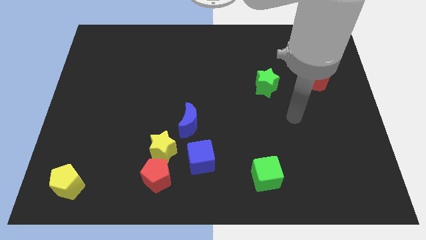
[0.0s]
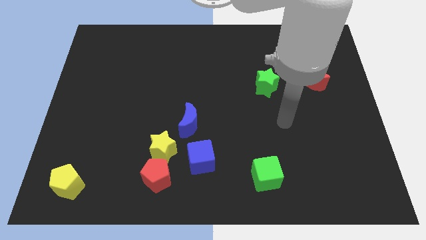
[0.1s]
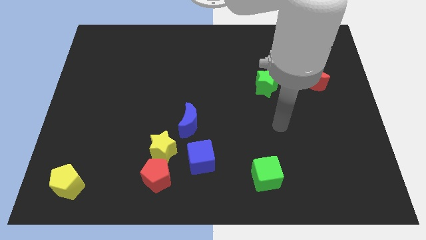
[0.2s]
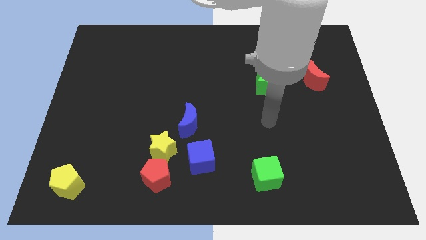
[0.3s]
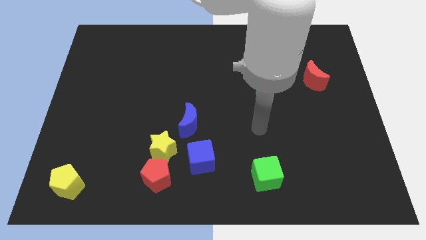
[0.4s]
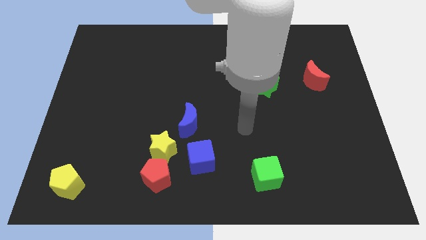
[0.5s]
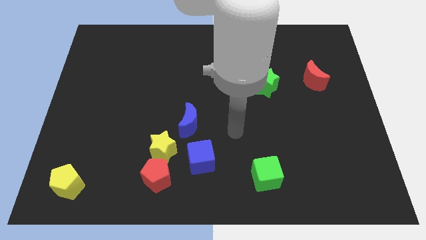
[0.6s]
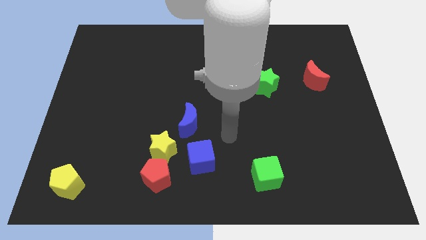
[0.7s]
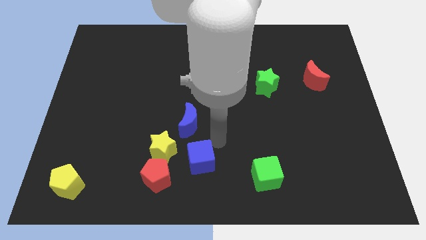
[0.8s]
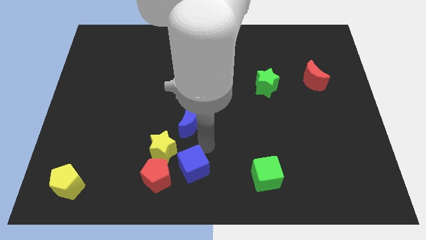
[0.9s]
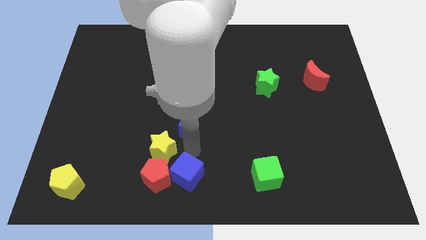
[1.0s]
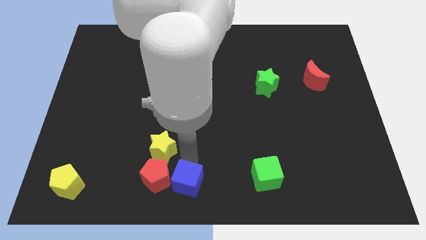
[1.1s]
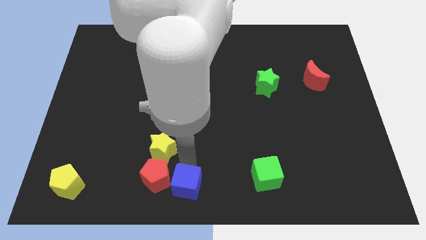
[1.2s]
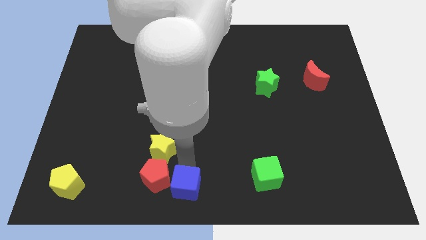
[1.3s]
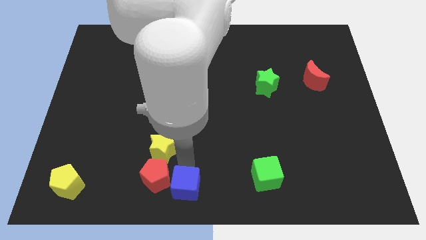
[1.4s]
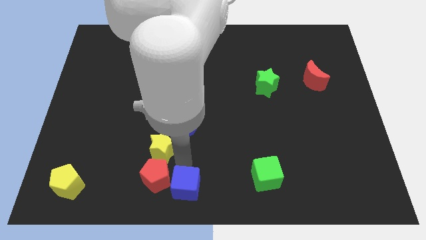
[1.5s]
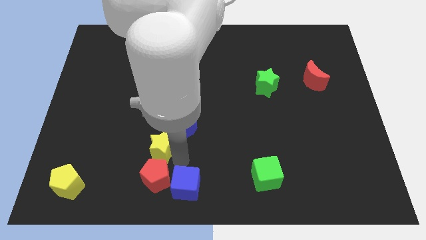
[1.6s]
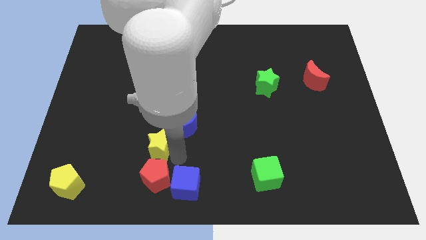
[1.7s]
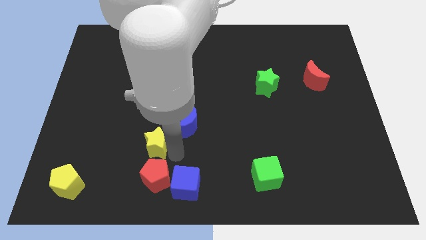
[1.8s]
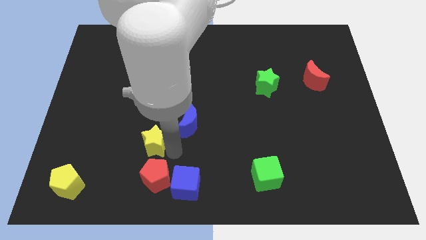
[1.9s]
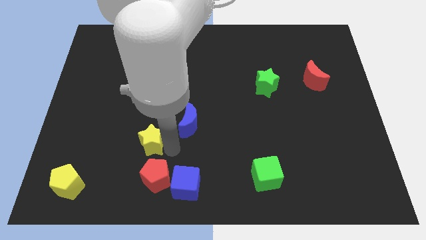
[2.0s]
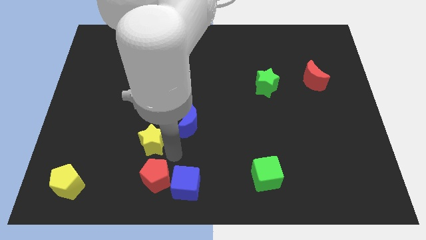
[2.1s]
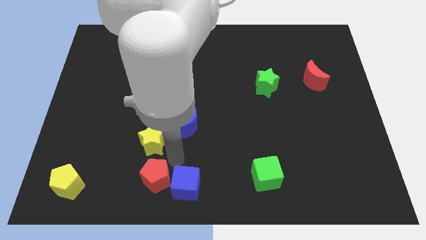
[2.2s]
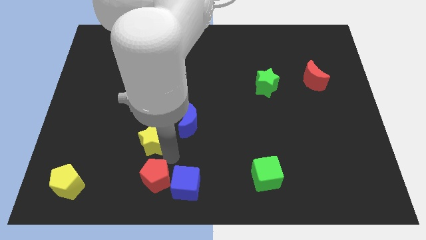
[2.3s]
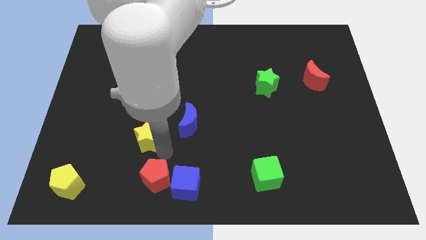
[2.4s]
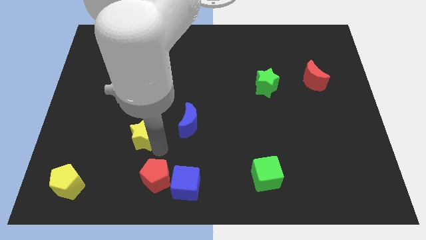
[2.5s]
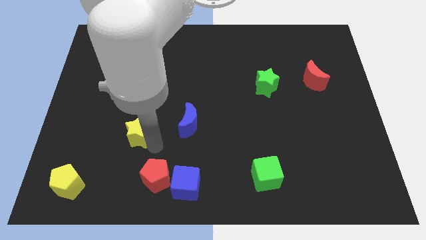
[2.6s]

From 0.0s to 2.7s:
move the yellow star away from the group of blocks

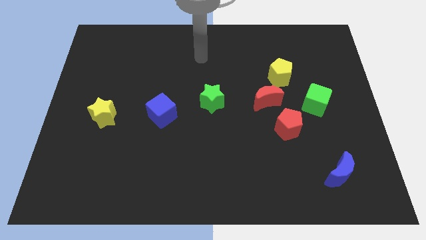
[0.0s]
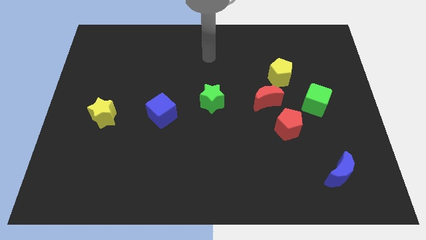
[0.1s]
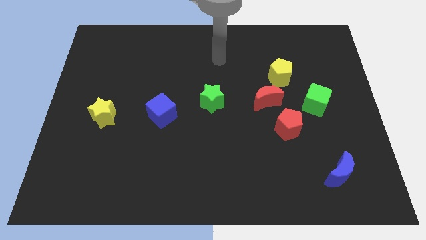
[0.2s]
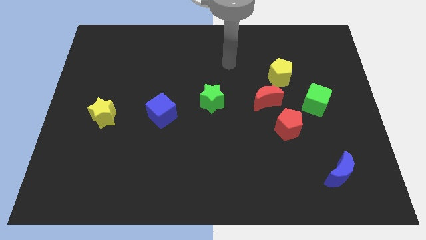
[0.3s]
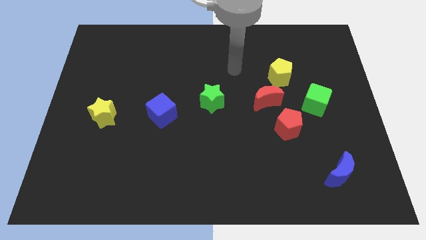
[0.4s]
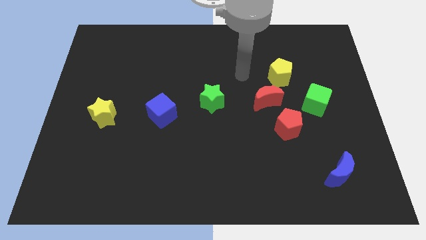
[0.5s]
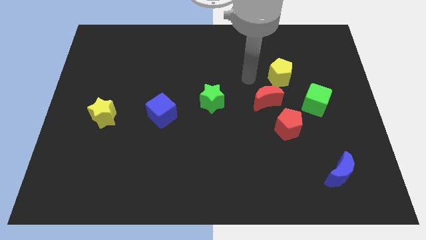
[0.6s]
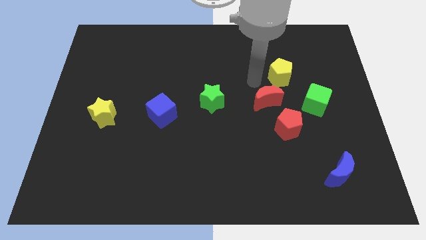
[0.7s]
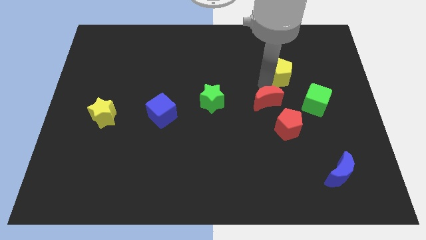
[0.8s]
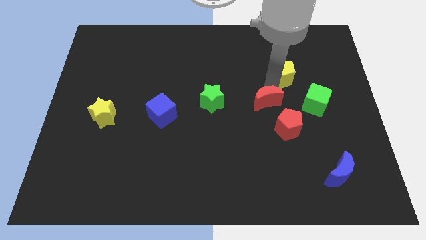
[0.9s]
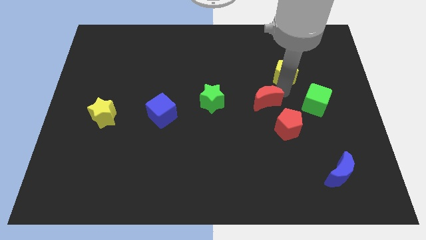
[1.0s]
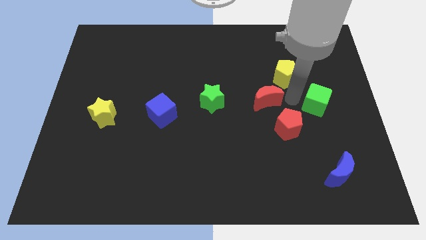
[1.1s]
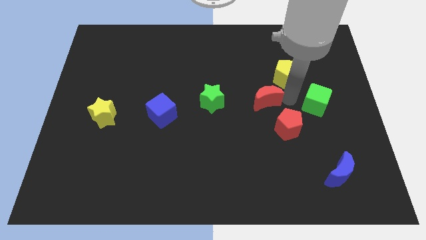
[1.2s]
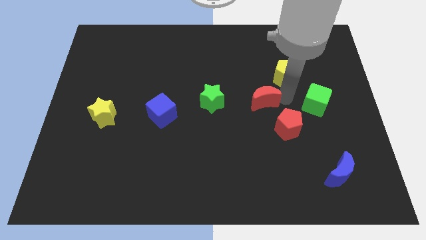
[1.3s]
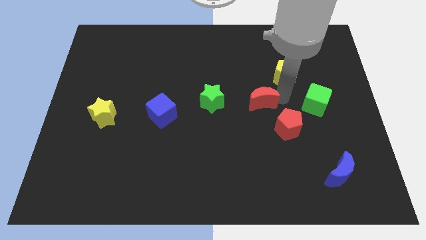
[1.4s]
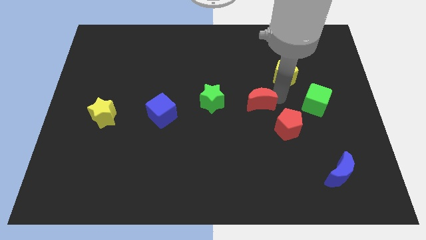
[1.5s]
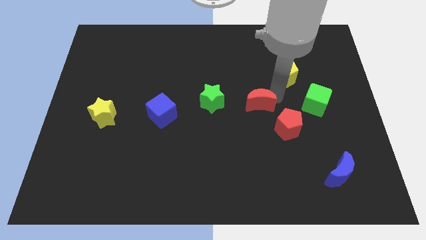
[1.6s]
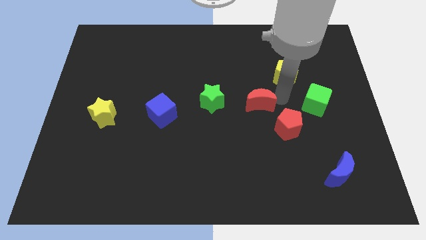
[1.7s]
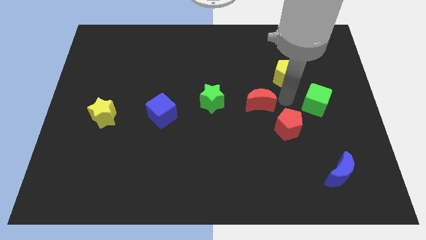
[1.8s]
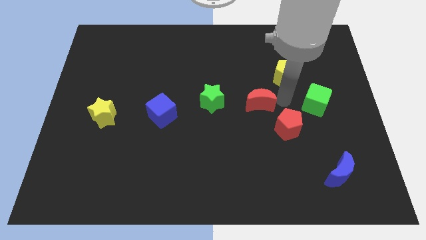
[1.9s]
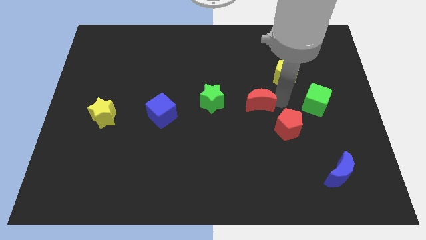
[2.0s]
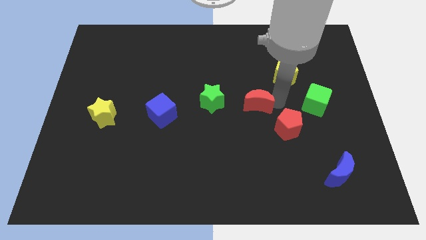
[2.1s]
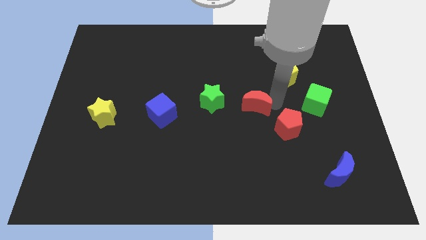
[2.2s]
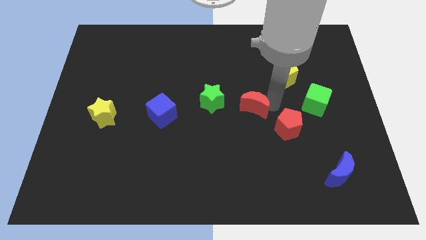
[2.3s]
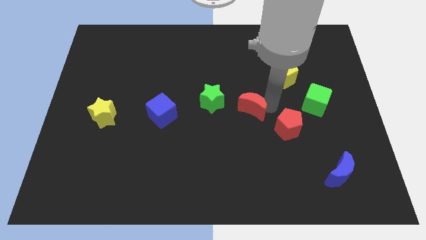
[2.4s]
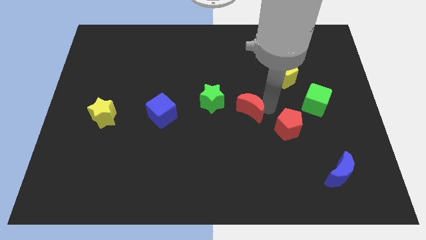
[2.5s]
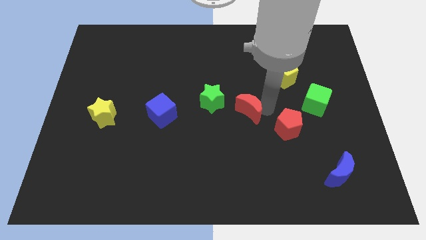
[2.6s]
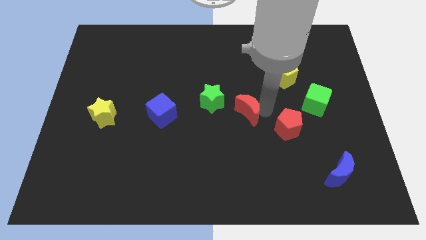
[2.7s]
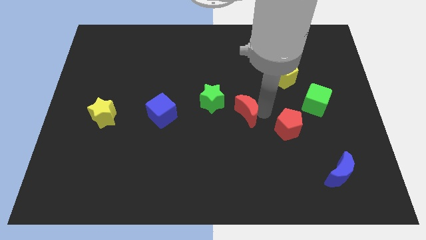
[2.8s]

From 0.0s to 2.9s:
move the red moon away from the red pentagon and yellow pentagon

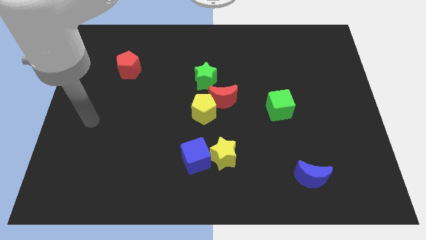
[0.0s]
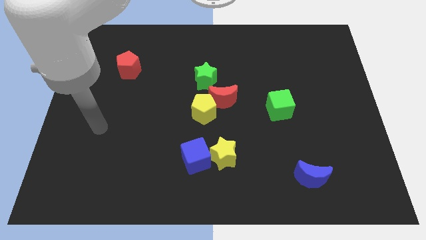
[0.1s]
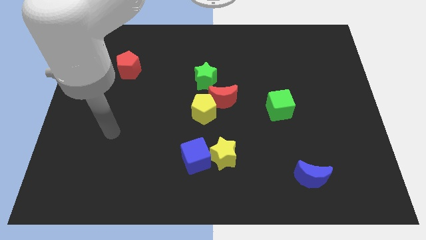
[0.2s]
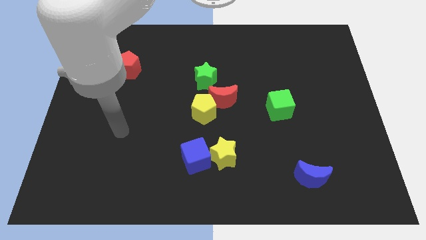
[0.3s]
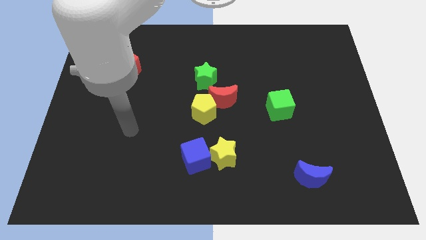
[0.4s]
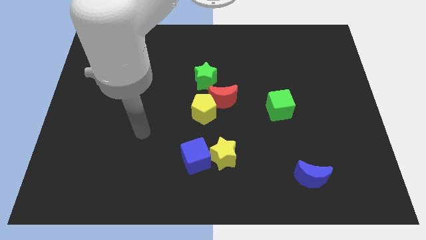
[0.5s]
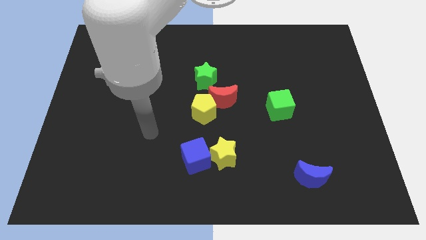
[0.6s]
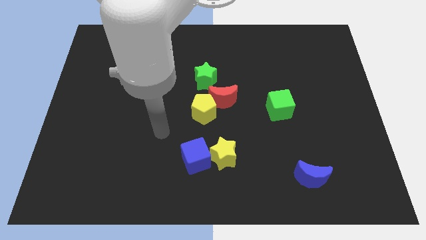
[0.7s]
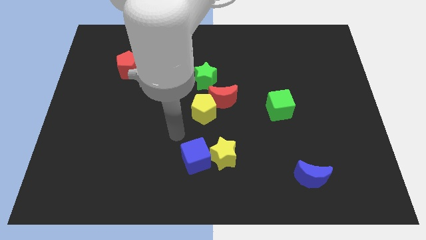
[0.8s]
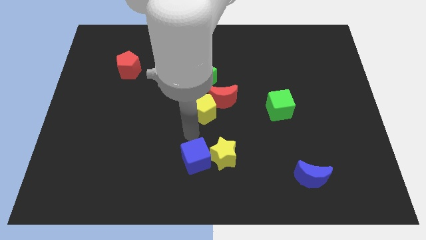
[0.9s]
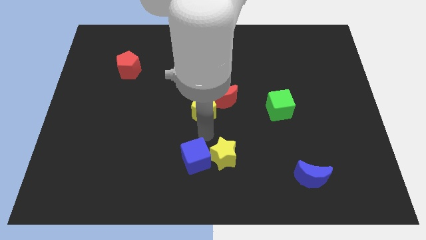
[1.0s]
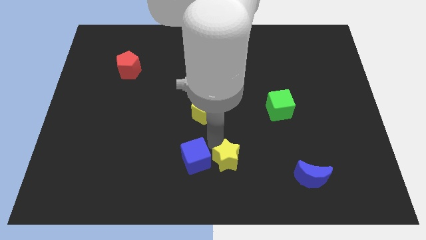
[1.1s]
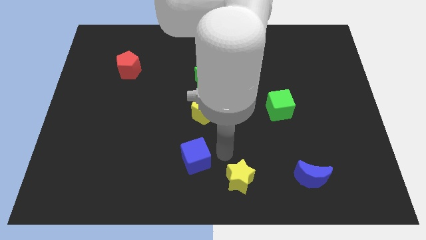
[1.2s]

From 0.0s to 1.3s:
move the blue cube away from the yellow star

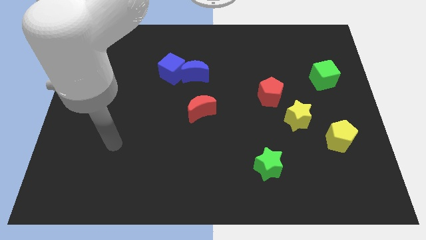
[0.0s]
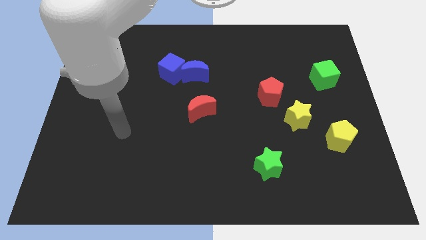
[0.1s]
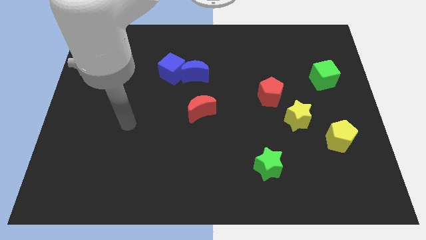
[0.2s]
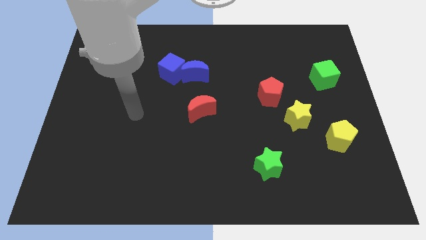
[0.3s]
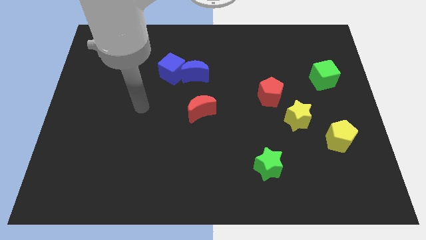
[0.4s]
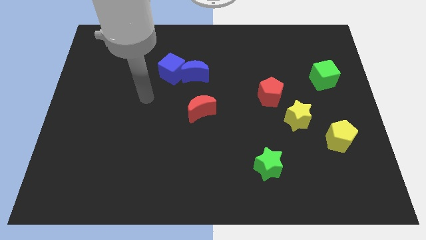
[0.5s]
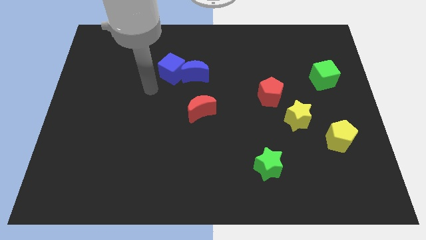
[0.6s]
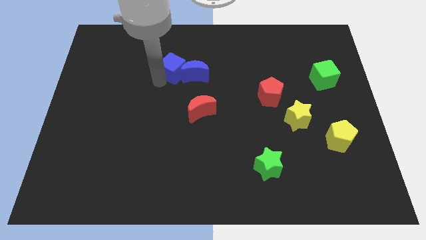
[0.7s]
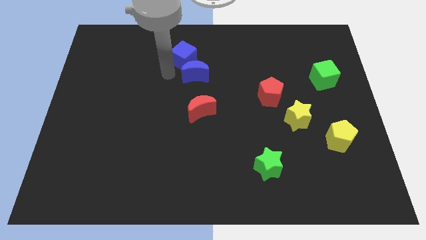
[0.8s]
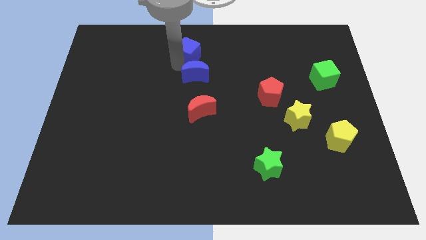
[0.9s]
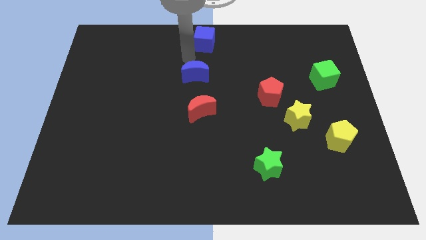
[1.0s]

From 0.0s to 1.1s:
separate the blue moon from the blue cube

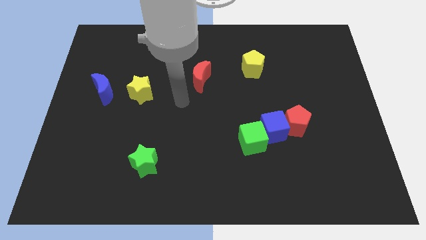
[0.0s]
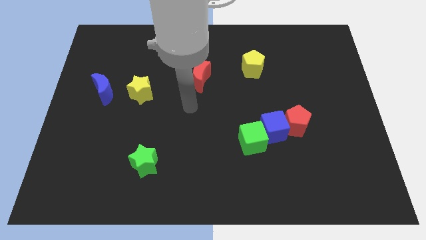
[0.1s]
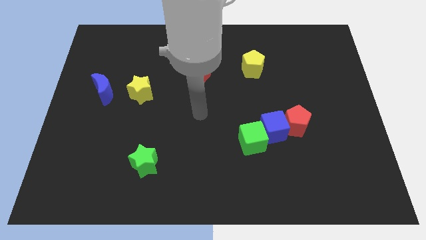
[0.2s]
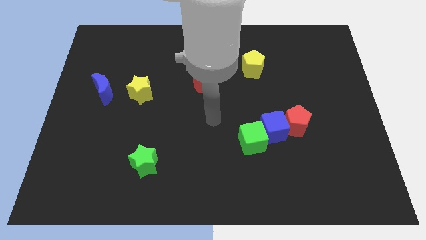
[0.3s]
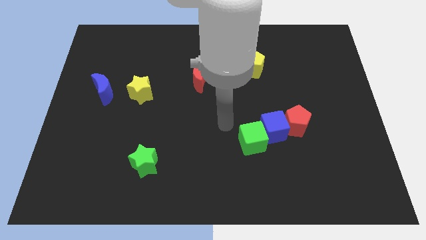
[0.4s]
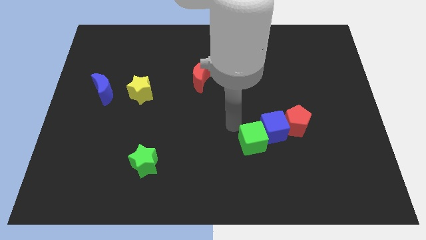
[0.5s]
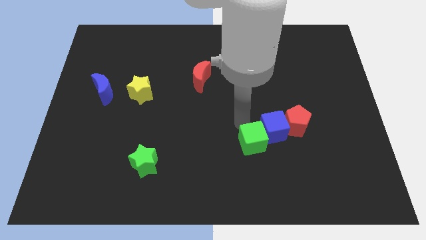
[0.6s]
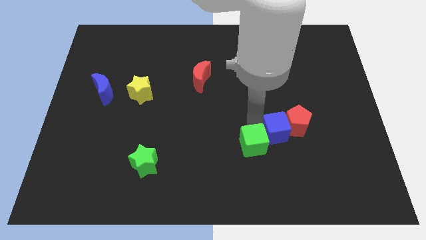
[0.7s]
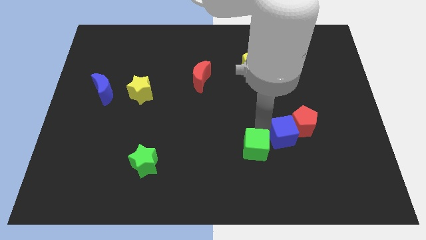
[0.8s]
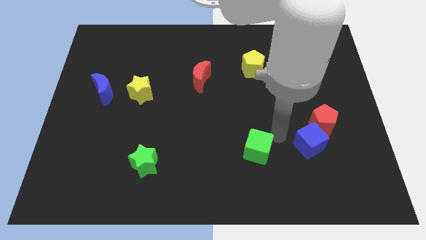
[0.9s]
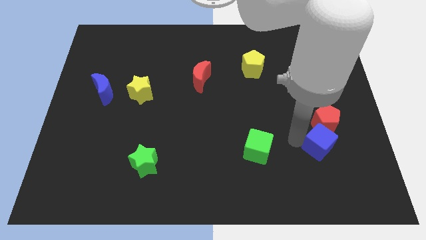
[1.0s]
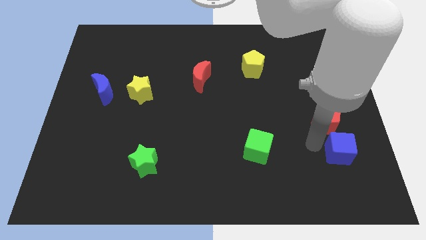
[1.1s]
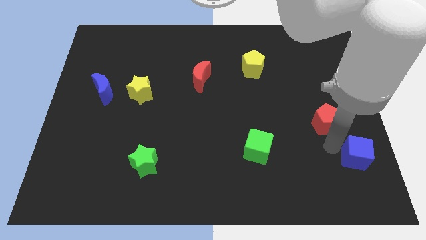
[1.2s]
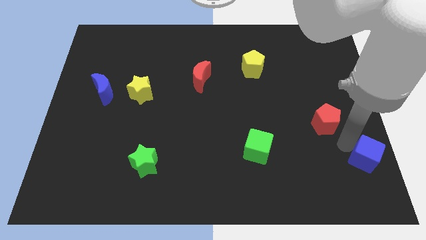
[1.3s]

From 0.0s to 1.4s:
move the red pentagon away from the blue cube
